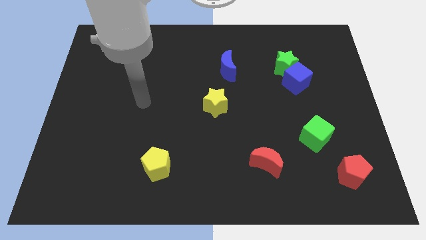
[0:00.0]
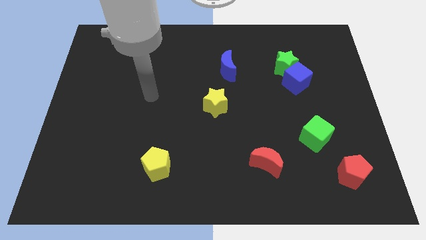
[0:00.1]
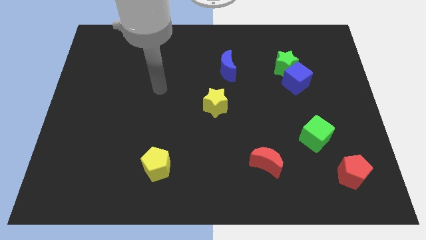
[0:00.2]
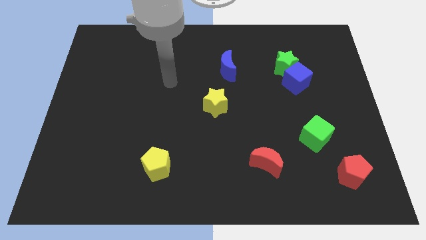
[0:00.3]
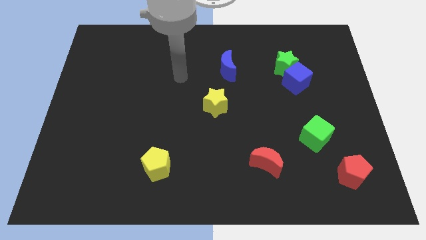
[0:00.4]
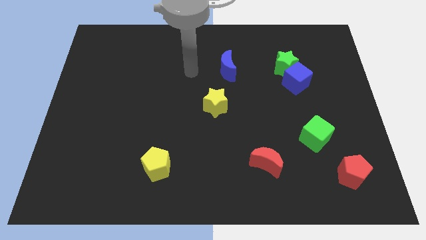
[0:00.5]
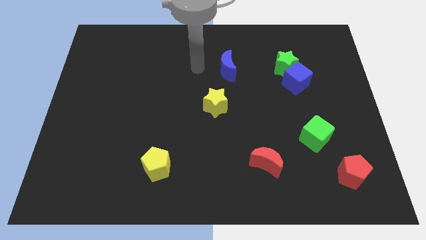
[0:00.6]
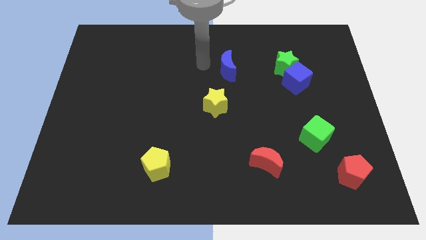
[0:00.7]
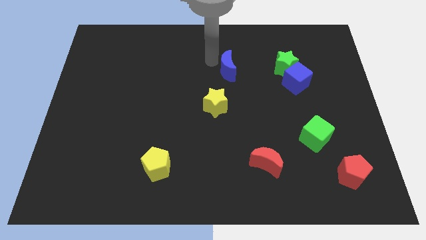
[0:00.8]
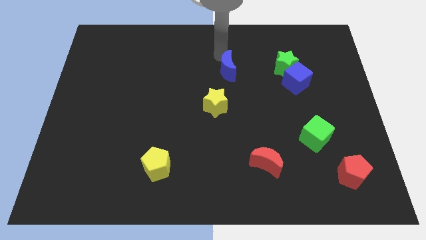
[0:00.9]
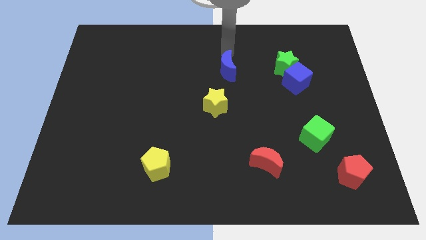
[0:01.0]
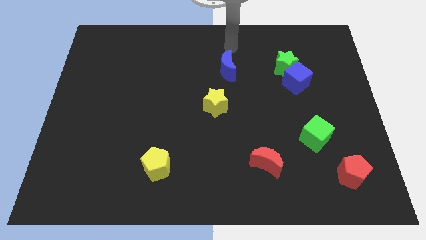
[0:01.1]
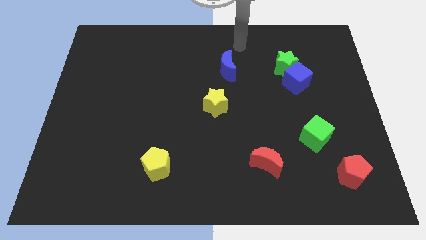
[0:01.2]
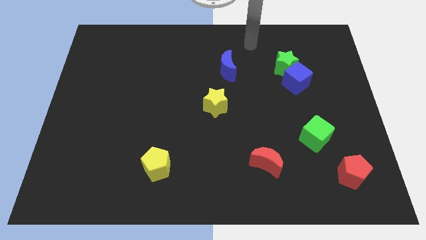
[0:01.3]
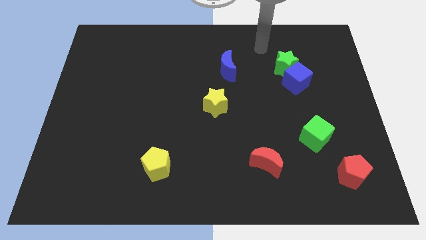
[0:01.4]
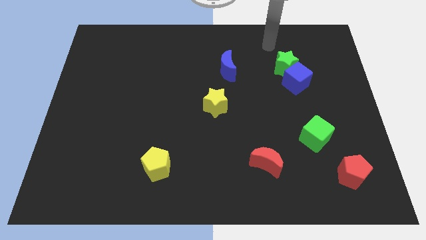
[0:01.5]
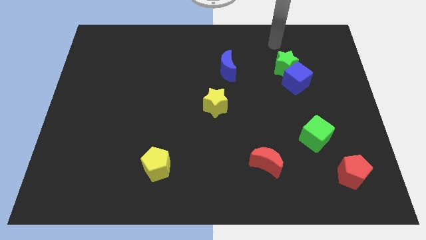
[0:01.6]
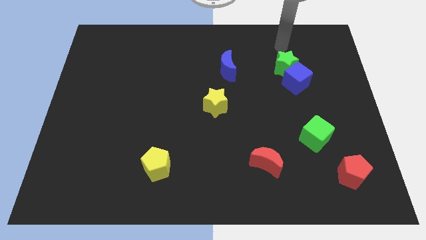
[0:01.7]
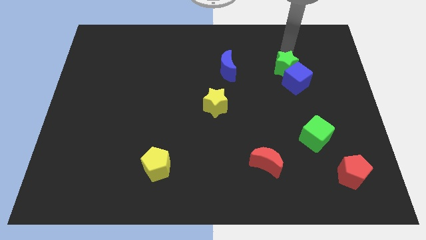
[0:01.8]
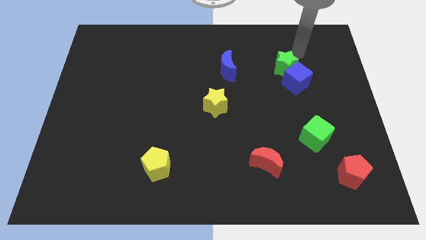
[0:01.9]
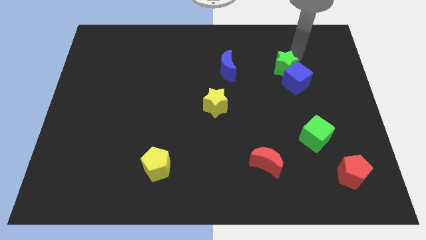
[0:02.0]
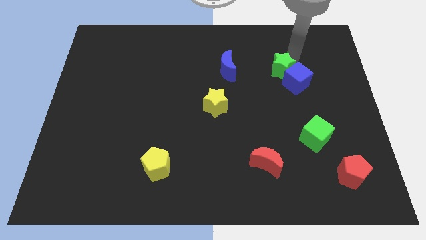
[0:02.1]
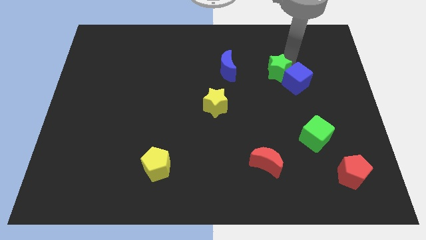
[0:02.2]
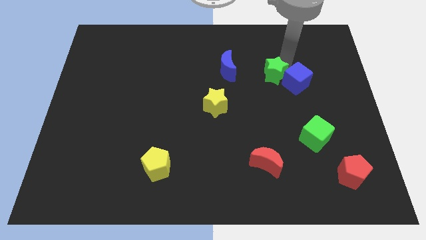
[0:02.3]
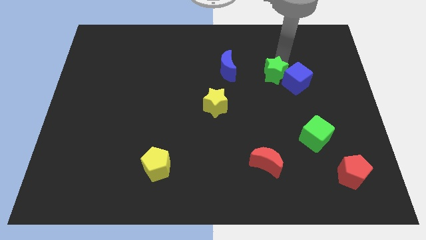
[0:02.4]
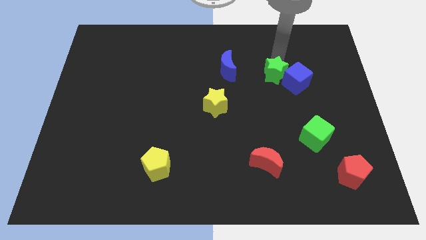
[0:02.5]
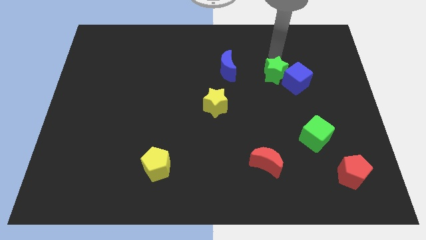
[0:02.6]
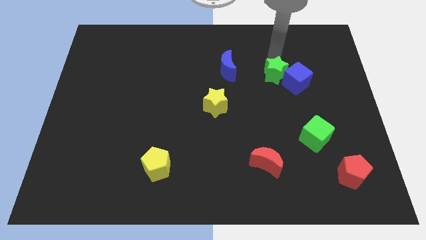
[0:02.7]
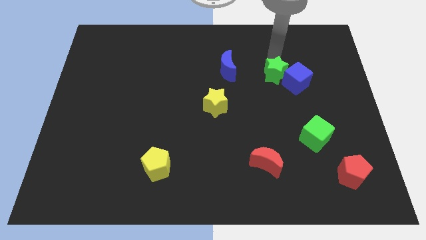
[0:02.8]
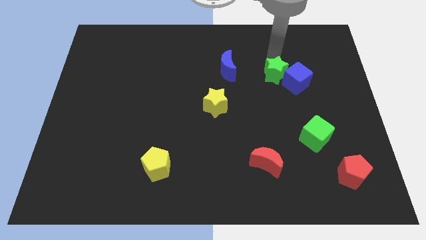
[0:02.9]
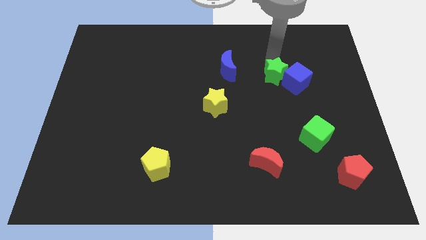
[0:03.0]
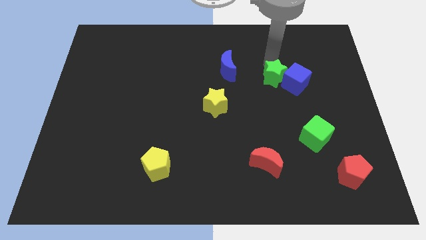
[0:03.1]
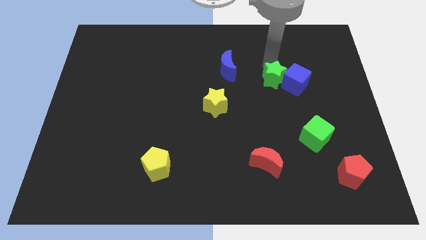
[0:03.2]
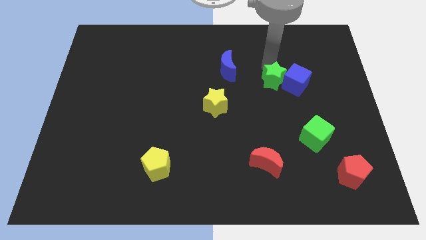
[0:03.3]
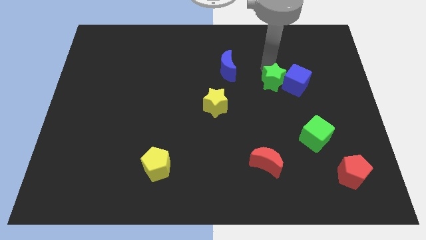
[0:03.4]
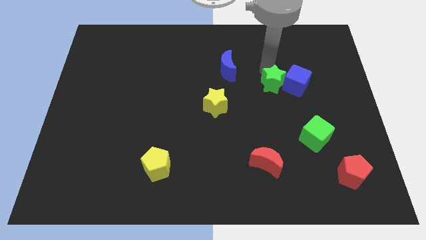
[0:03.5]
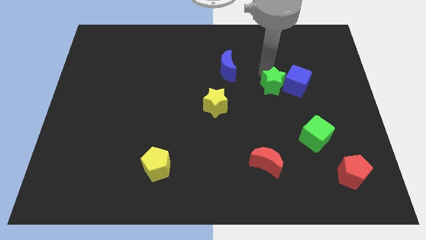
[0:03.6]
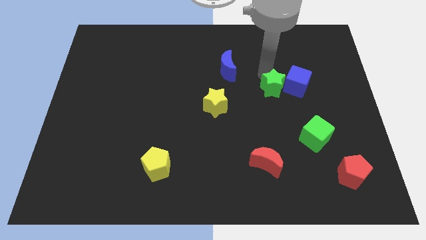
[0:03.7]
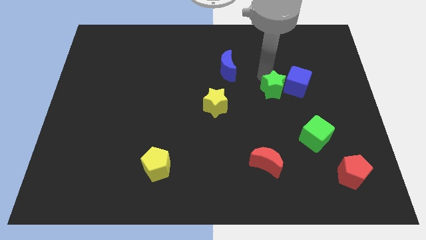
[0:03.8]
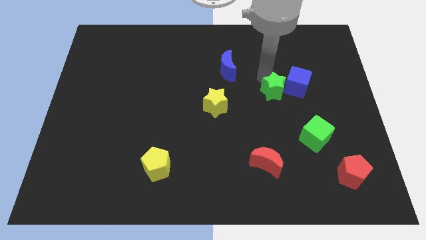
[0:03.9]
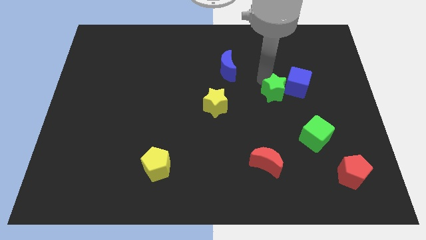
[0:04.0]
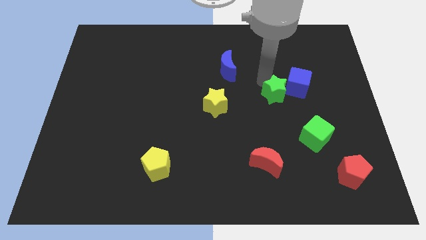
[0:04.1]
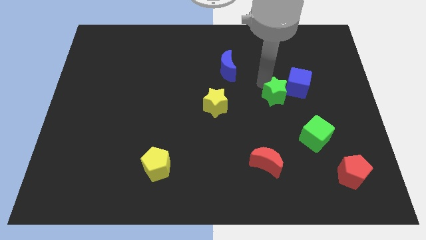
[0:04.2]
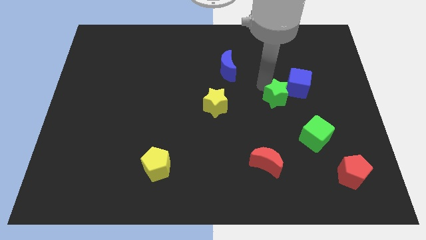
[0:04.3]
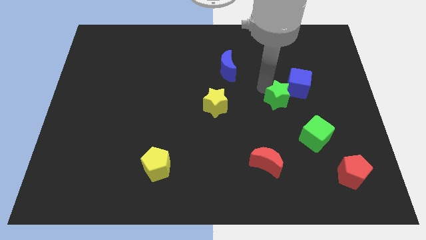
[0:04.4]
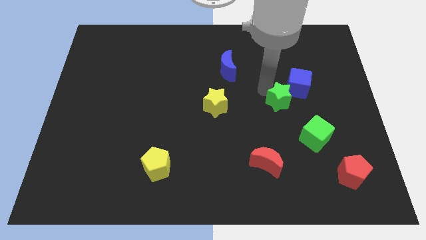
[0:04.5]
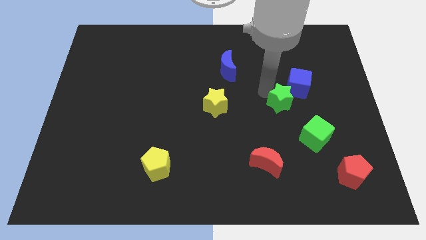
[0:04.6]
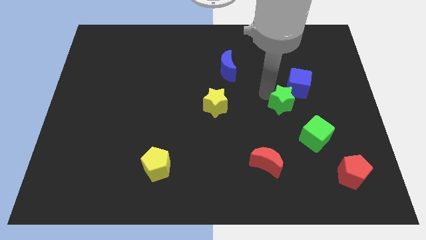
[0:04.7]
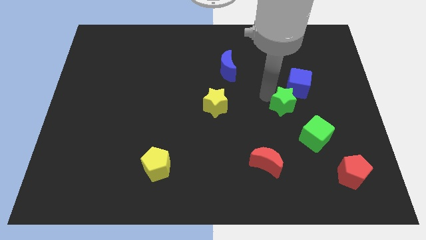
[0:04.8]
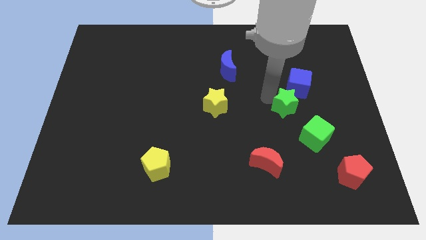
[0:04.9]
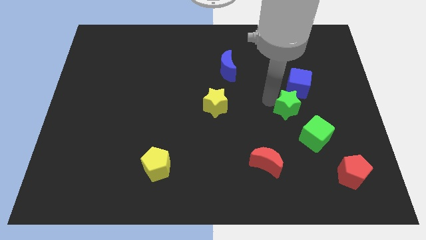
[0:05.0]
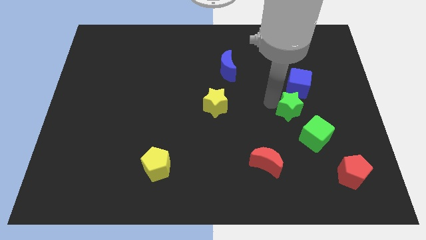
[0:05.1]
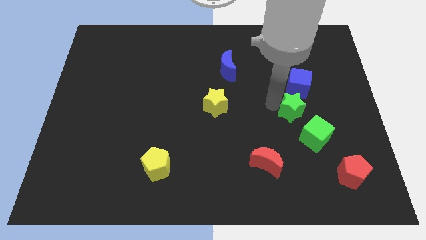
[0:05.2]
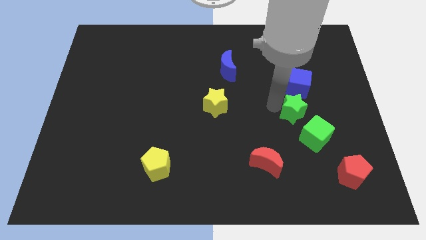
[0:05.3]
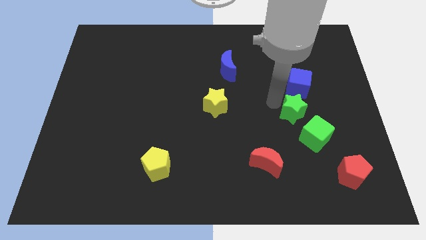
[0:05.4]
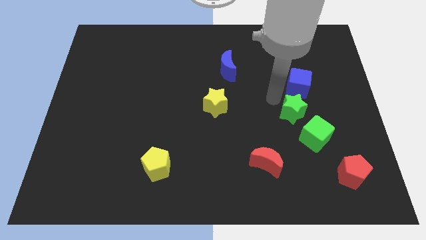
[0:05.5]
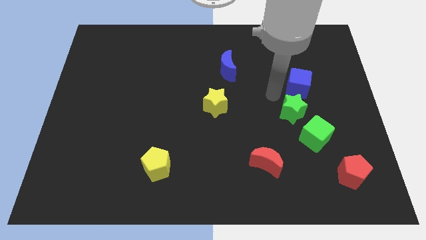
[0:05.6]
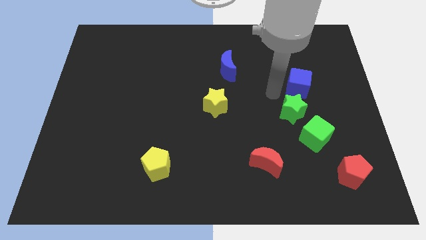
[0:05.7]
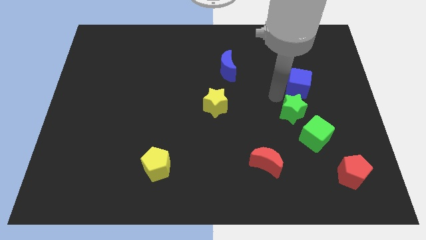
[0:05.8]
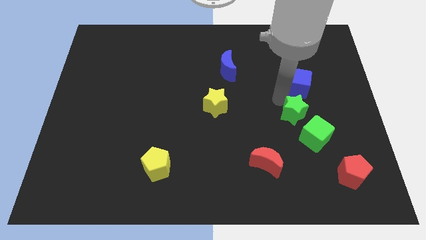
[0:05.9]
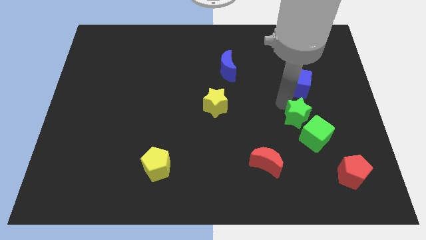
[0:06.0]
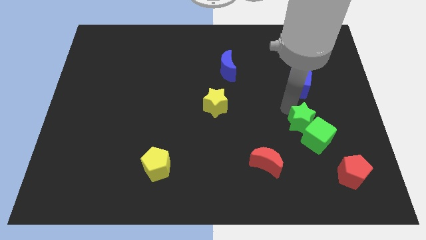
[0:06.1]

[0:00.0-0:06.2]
put the green star to the green cube

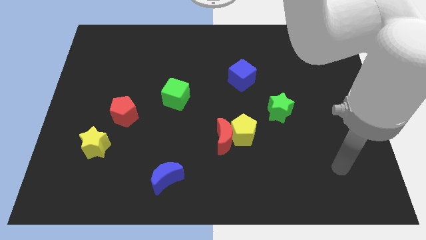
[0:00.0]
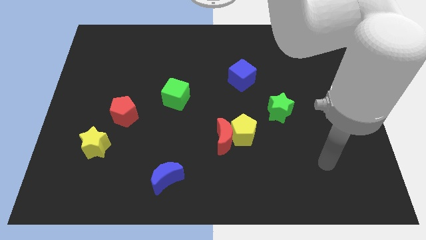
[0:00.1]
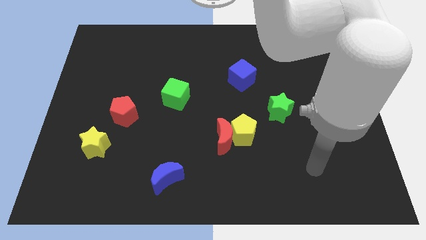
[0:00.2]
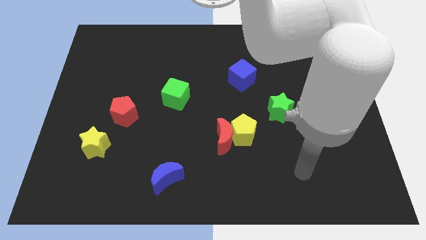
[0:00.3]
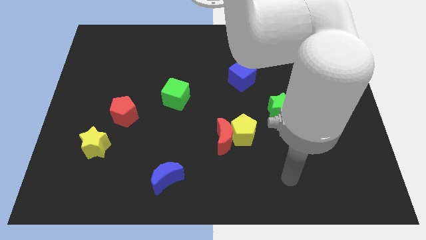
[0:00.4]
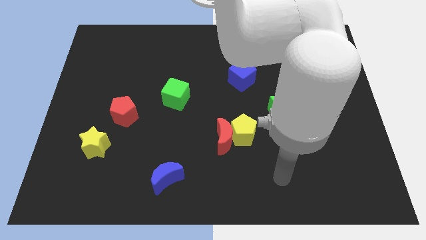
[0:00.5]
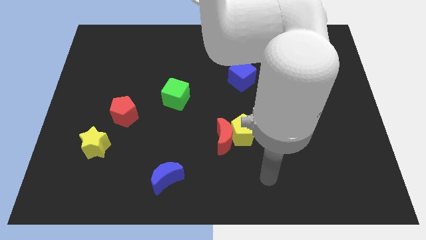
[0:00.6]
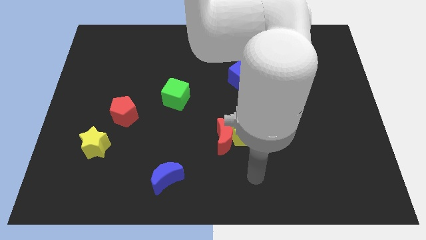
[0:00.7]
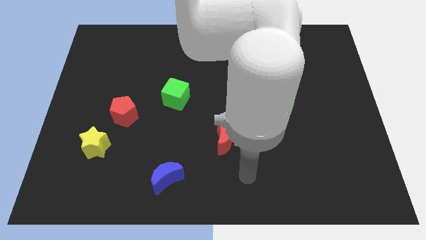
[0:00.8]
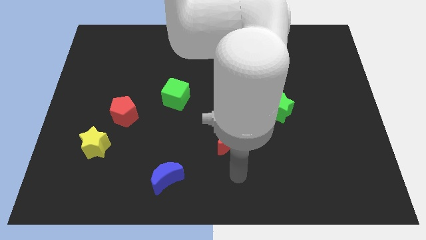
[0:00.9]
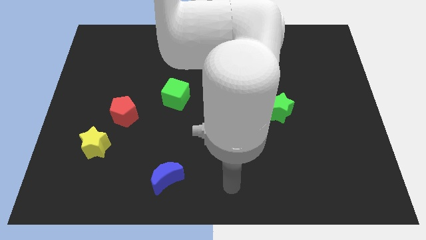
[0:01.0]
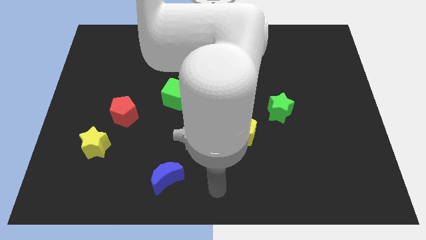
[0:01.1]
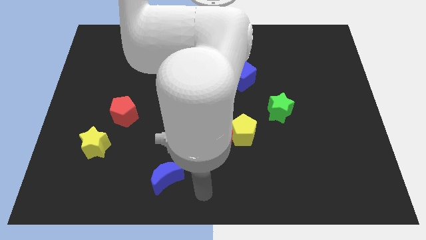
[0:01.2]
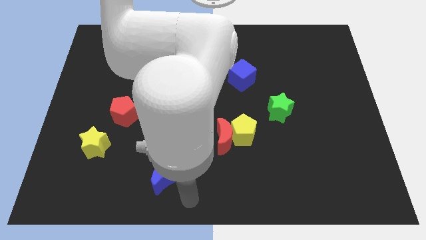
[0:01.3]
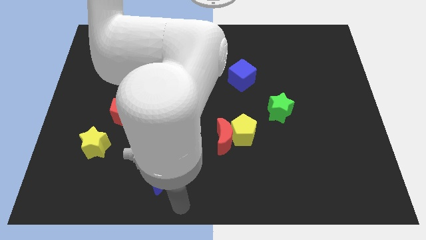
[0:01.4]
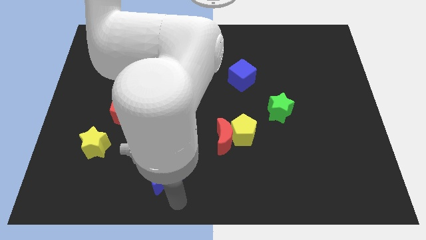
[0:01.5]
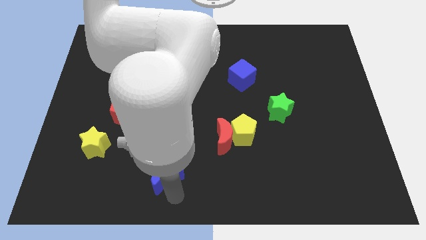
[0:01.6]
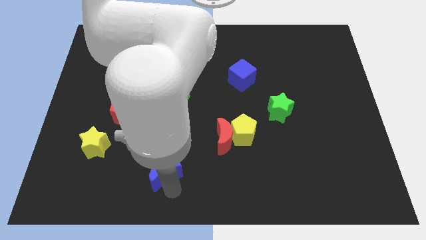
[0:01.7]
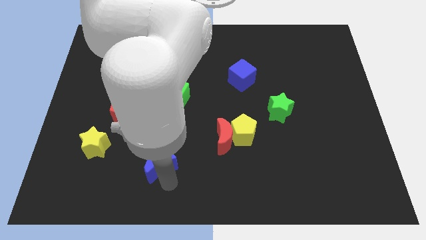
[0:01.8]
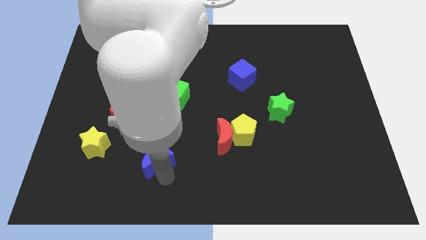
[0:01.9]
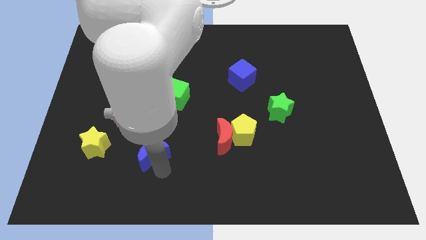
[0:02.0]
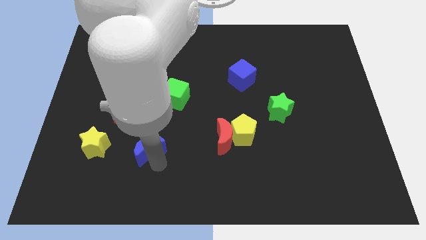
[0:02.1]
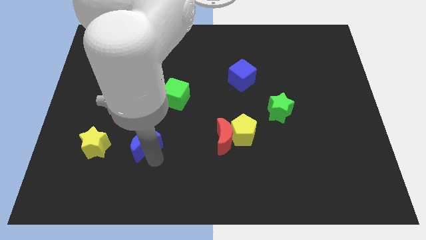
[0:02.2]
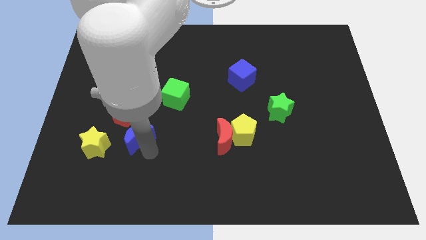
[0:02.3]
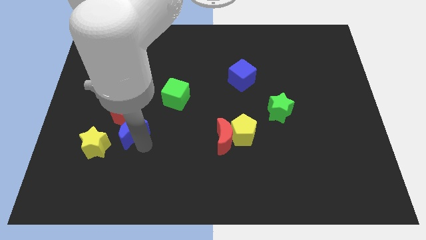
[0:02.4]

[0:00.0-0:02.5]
put the blue moon towards the red pentagon
